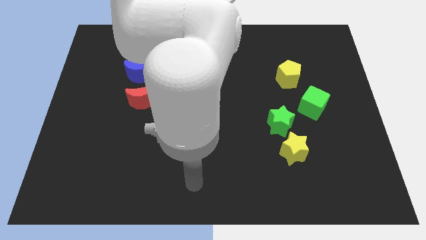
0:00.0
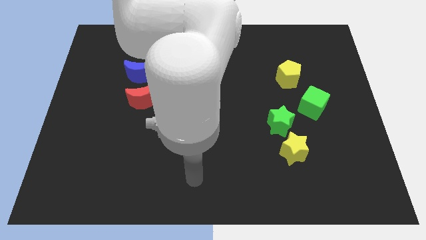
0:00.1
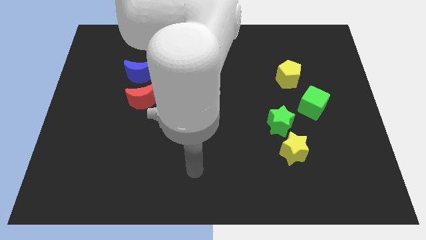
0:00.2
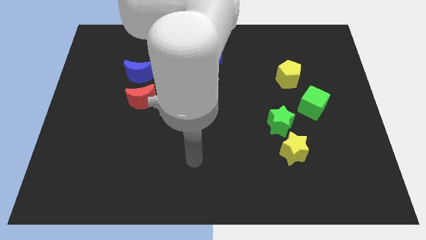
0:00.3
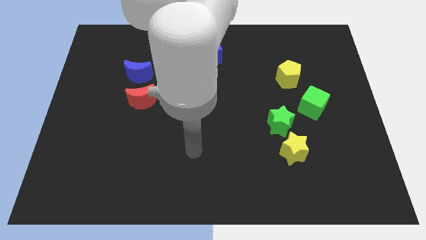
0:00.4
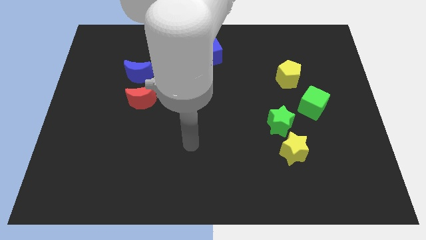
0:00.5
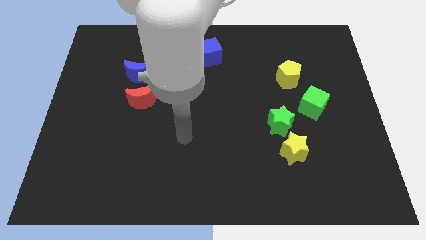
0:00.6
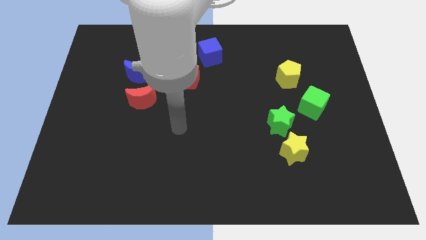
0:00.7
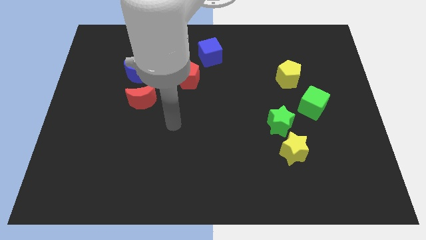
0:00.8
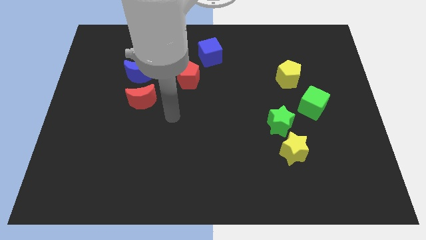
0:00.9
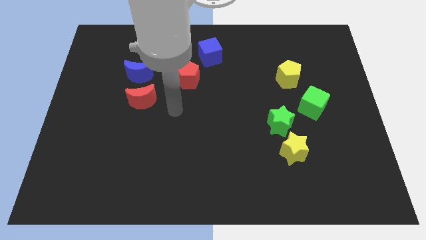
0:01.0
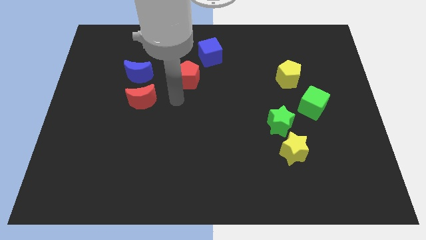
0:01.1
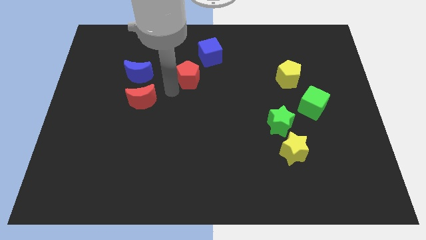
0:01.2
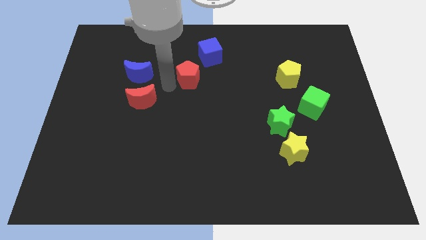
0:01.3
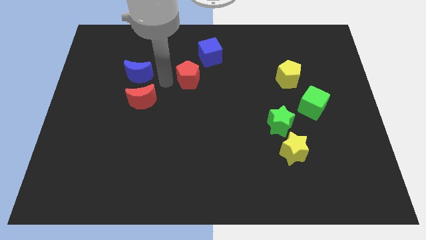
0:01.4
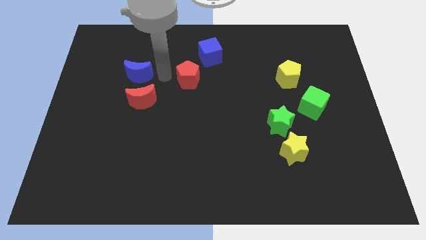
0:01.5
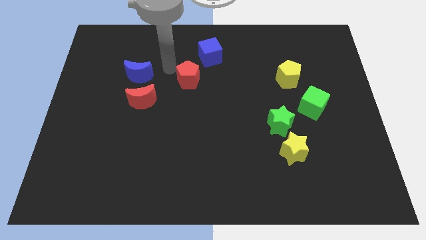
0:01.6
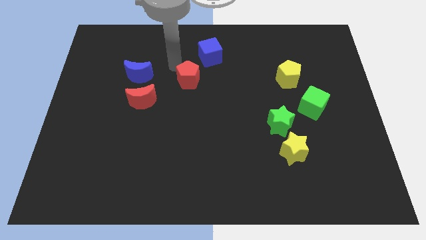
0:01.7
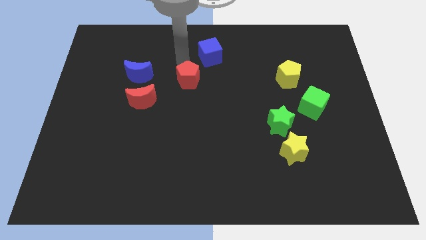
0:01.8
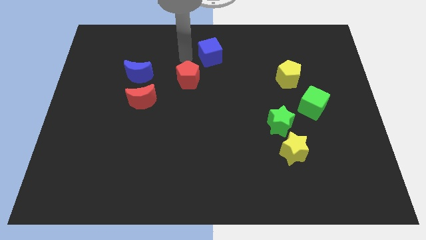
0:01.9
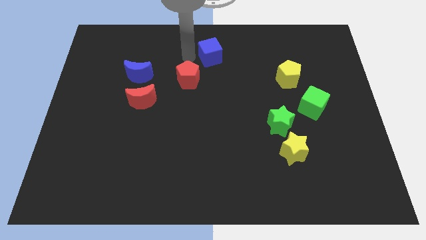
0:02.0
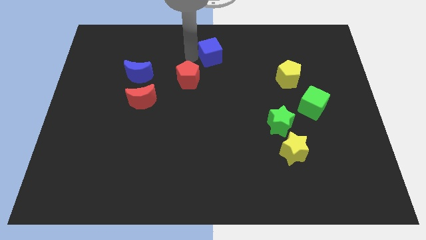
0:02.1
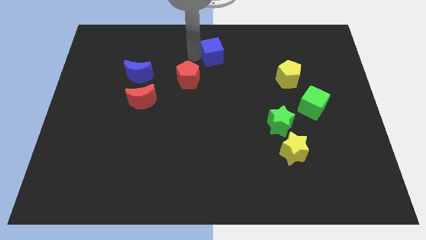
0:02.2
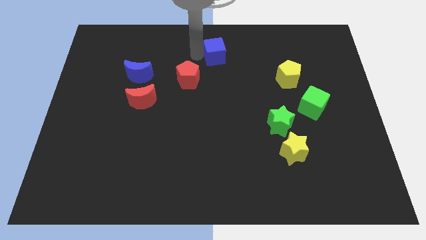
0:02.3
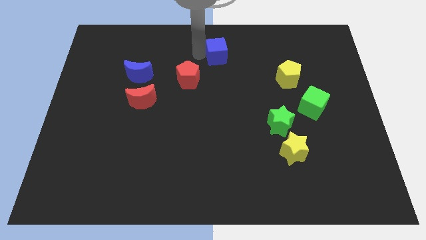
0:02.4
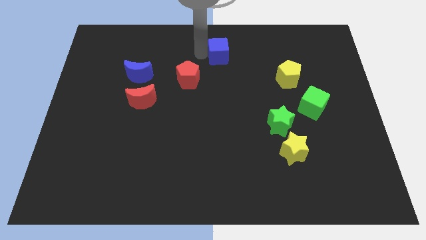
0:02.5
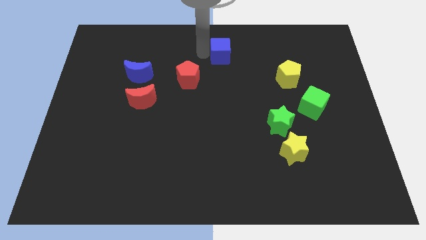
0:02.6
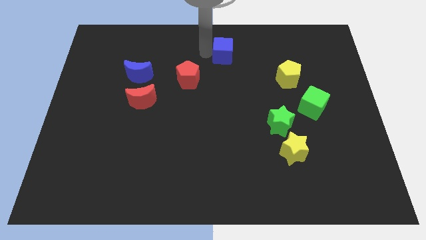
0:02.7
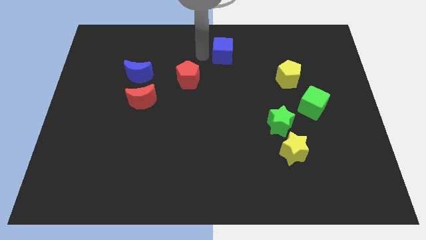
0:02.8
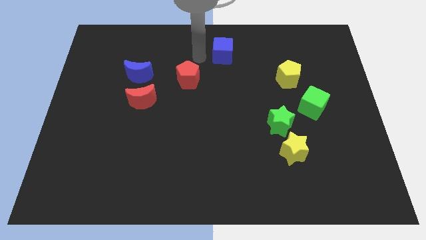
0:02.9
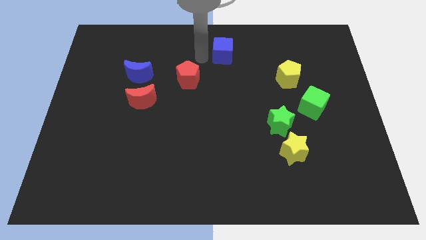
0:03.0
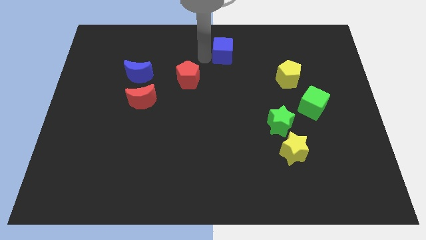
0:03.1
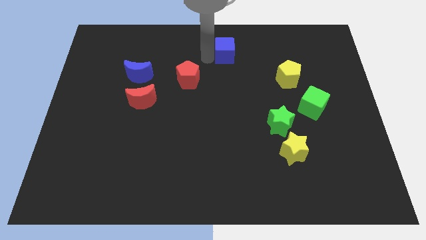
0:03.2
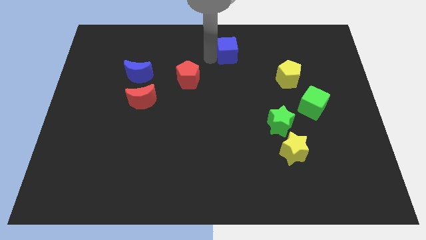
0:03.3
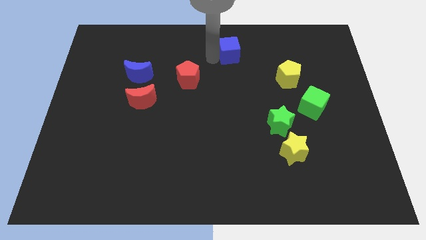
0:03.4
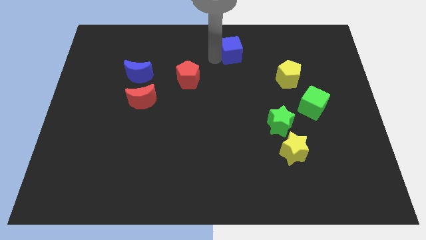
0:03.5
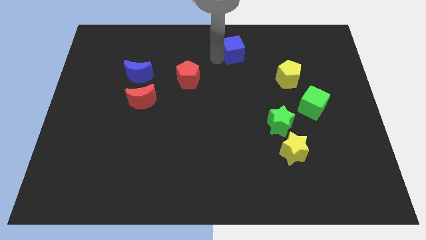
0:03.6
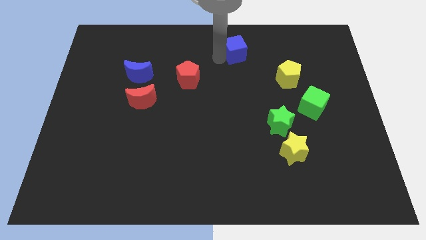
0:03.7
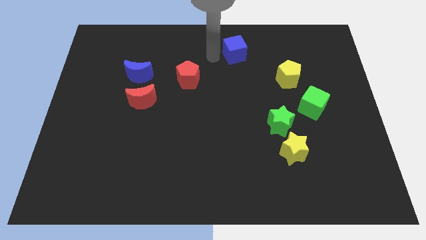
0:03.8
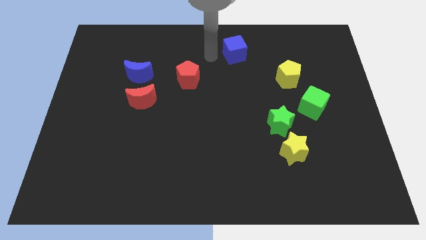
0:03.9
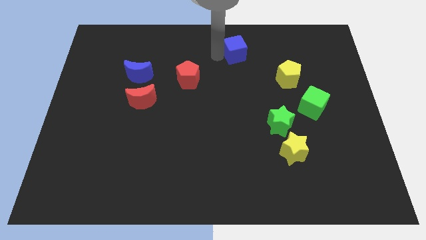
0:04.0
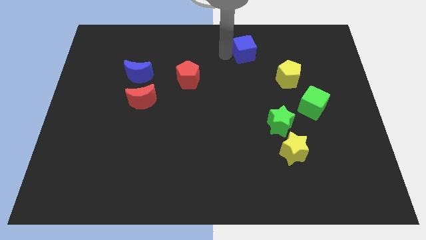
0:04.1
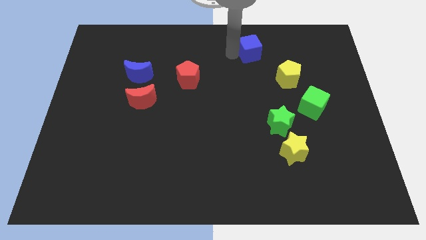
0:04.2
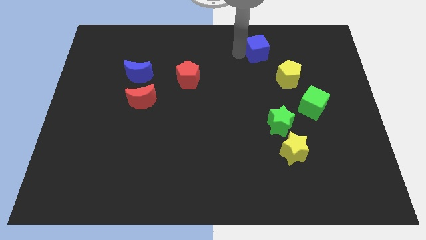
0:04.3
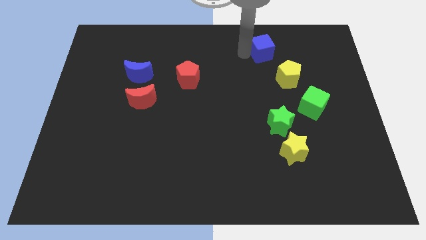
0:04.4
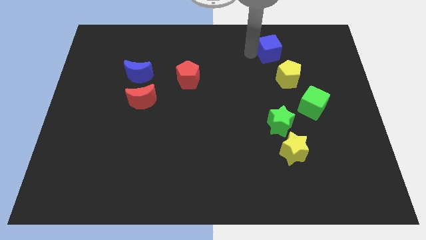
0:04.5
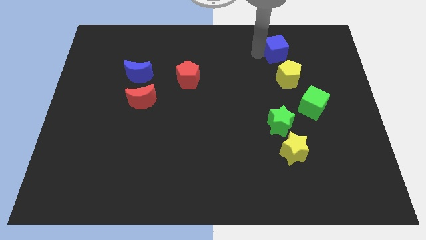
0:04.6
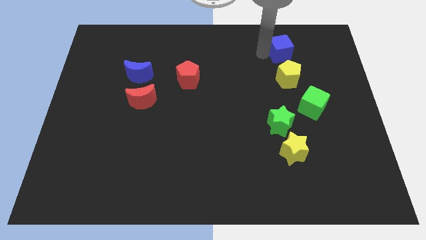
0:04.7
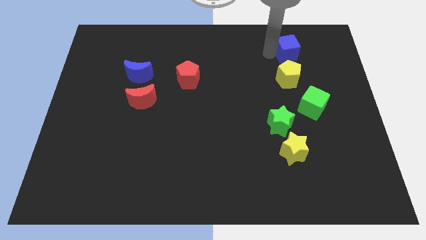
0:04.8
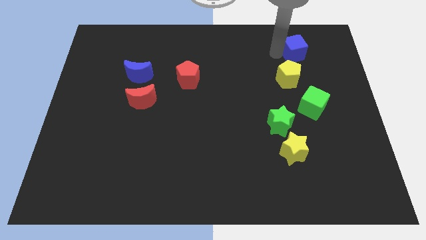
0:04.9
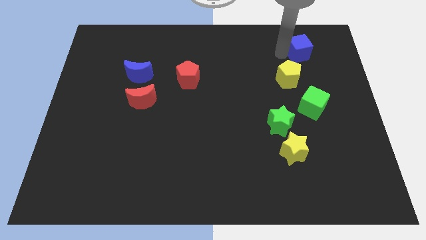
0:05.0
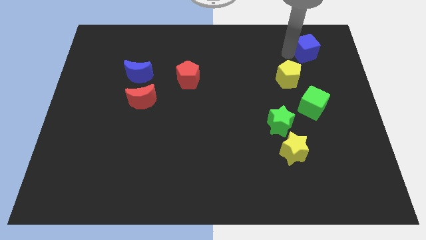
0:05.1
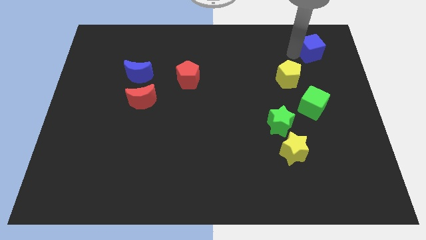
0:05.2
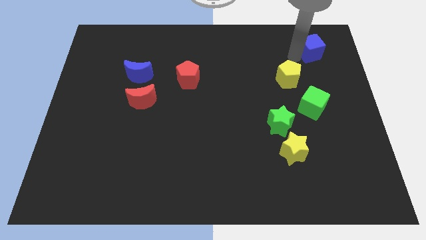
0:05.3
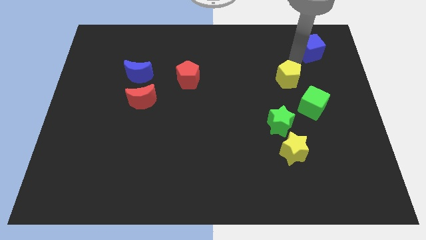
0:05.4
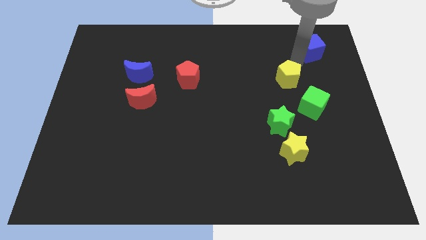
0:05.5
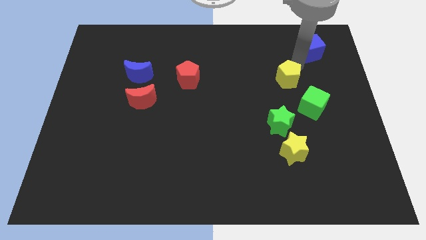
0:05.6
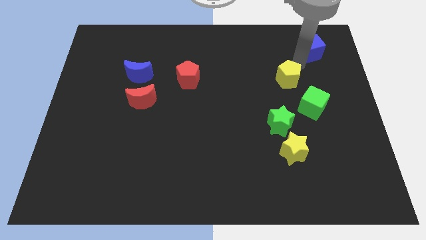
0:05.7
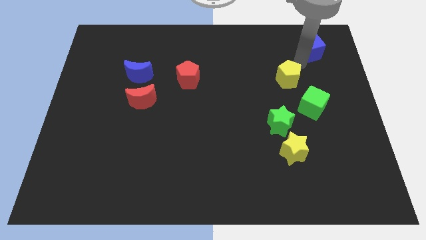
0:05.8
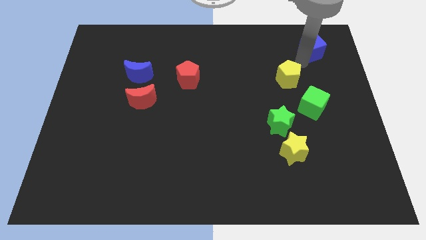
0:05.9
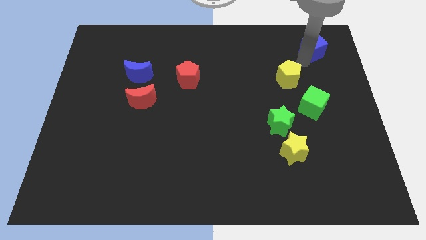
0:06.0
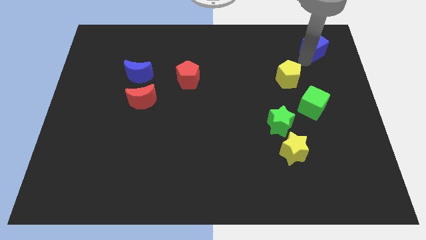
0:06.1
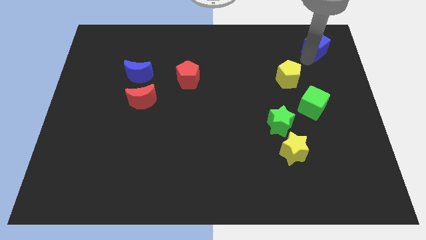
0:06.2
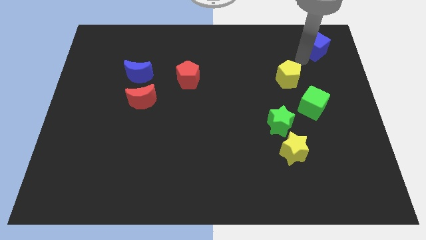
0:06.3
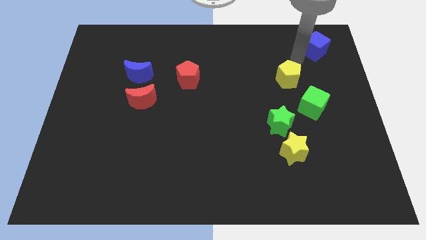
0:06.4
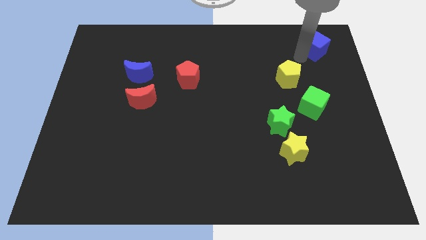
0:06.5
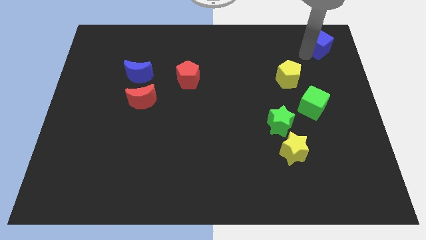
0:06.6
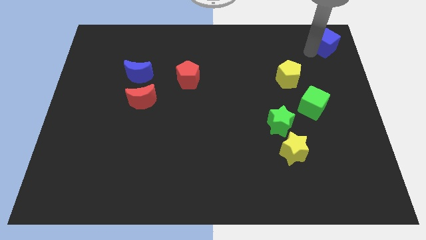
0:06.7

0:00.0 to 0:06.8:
push the blue cube to the top right

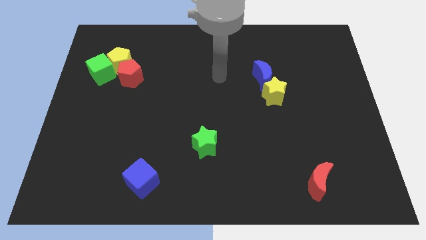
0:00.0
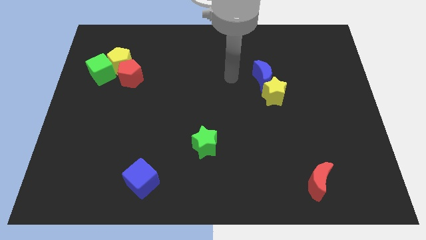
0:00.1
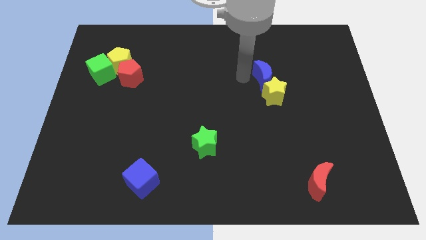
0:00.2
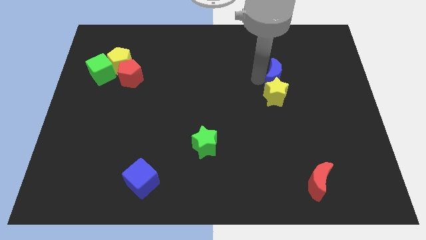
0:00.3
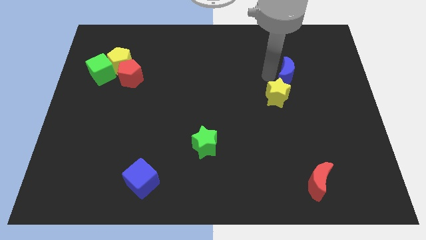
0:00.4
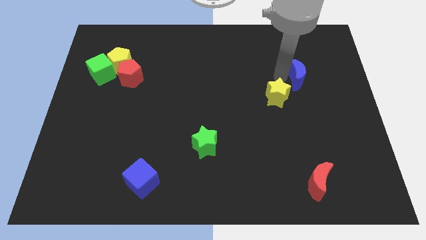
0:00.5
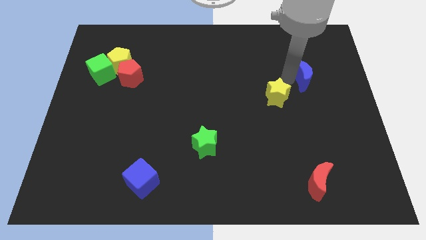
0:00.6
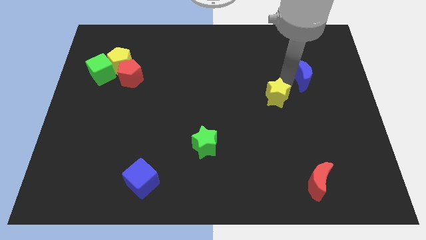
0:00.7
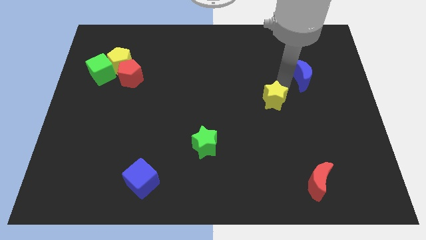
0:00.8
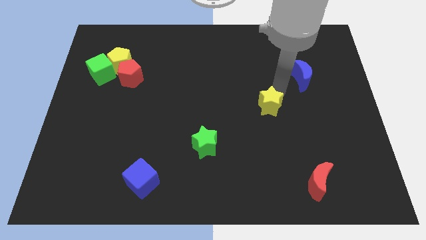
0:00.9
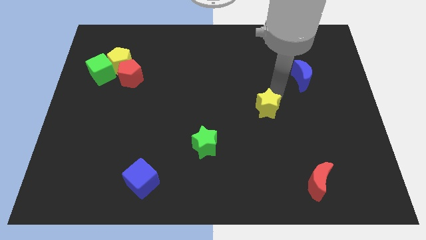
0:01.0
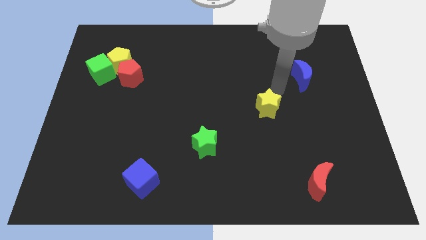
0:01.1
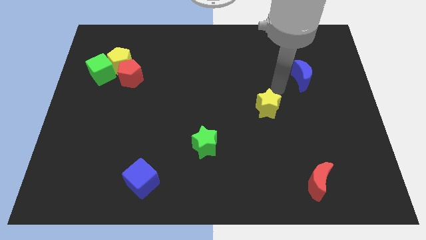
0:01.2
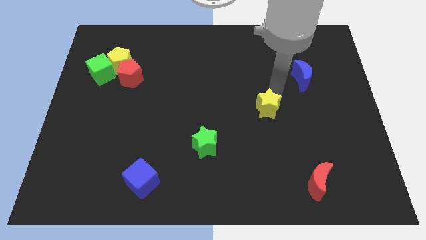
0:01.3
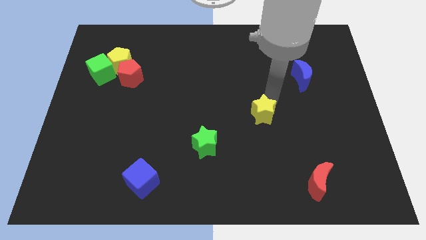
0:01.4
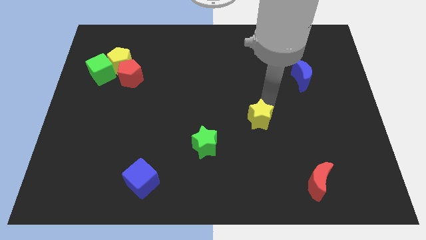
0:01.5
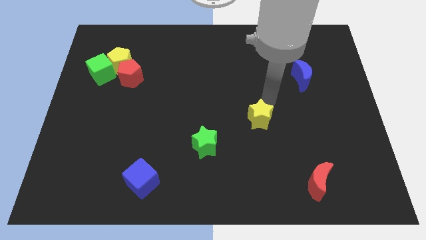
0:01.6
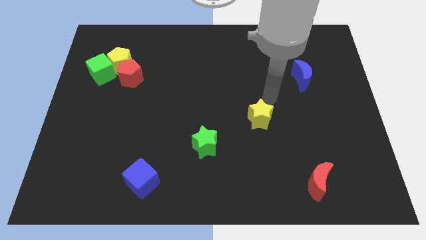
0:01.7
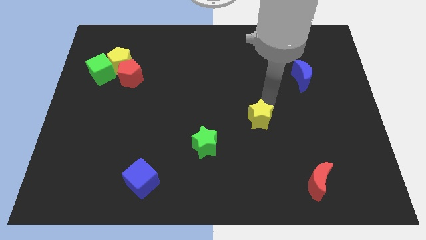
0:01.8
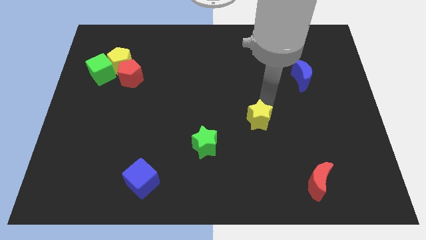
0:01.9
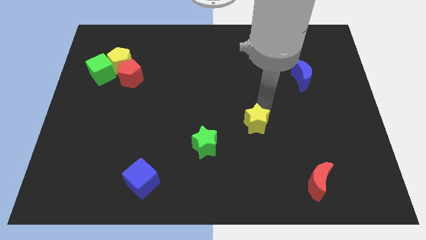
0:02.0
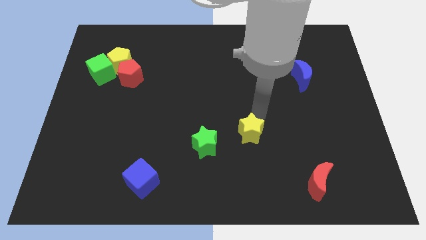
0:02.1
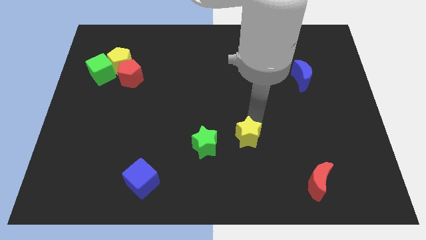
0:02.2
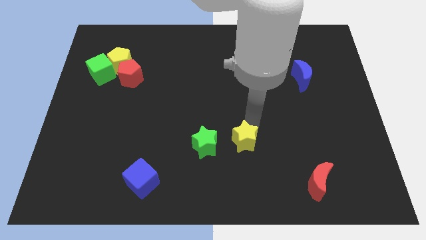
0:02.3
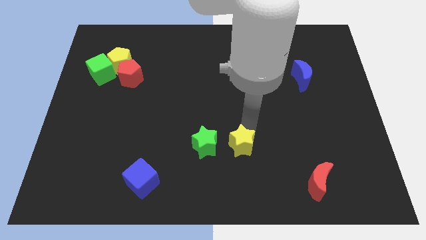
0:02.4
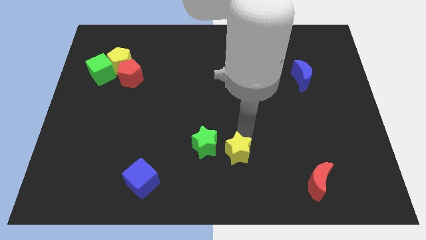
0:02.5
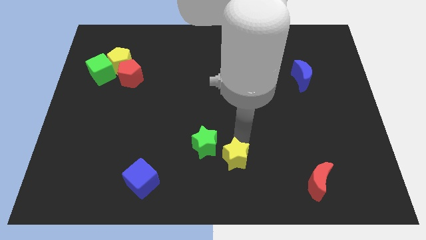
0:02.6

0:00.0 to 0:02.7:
put the yellow star to the bottom side
